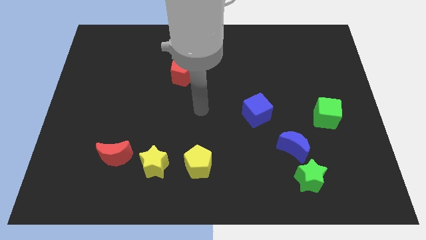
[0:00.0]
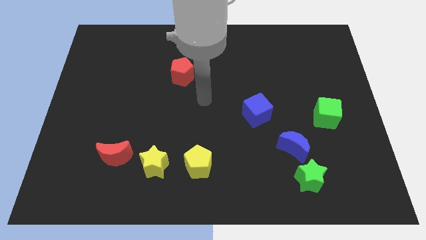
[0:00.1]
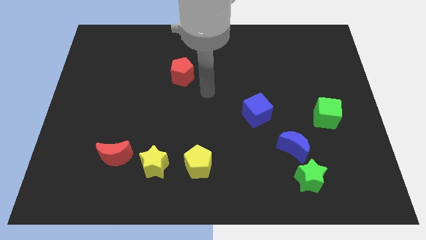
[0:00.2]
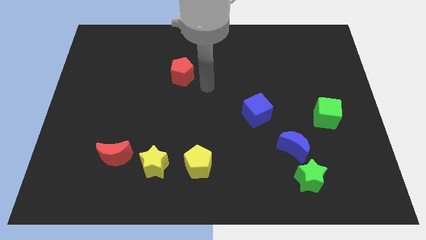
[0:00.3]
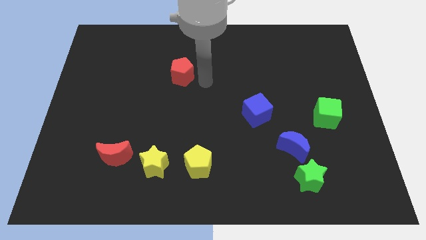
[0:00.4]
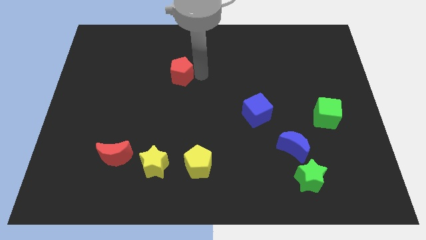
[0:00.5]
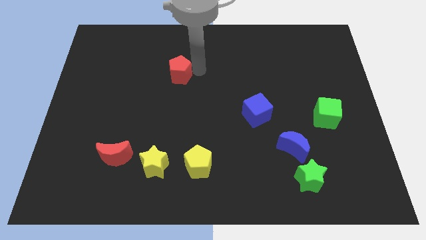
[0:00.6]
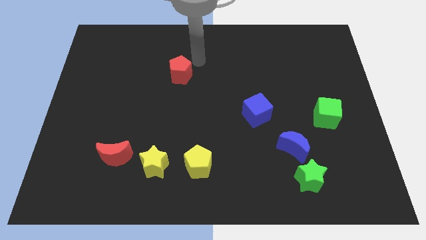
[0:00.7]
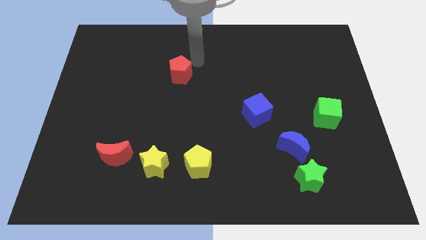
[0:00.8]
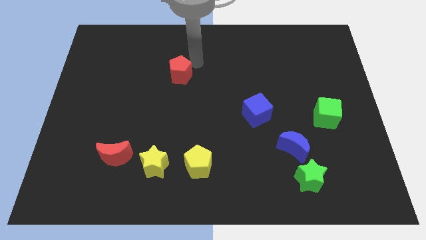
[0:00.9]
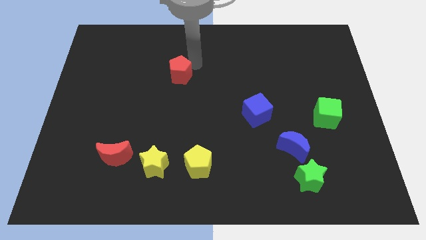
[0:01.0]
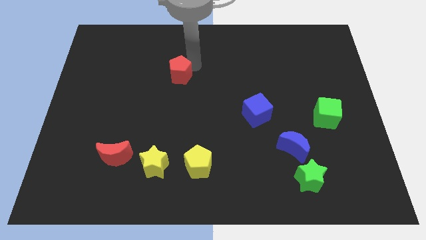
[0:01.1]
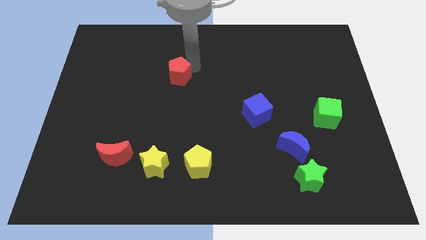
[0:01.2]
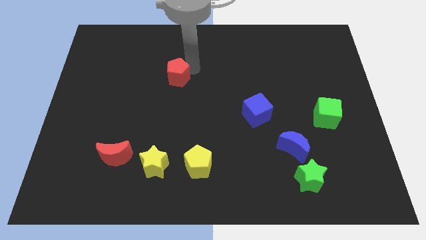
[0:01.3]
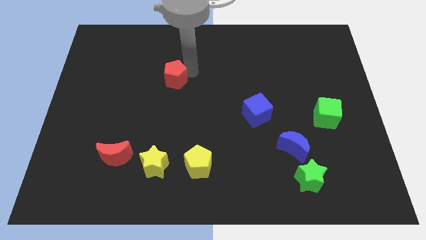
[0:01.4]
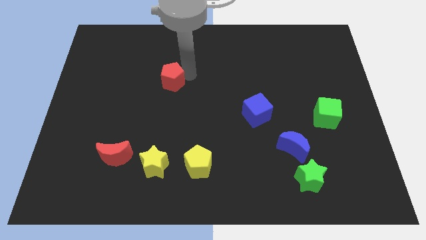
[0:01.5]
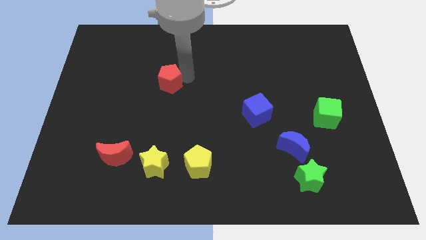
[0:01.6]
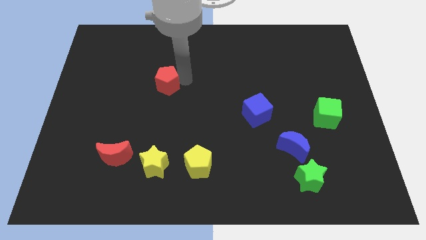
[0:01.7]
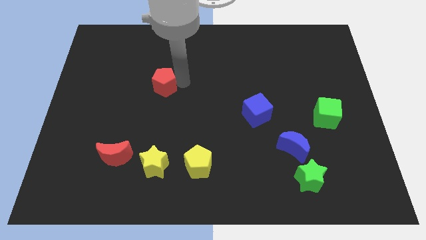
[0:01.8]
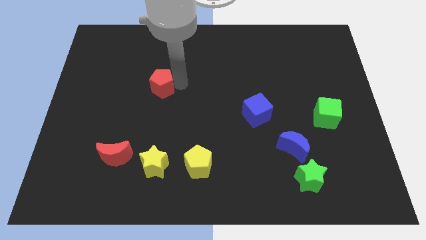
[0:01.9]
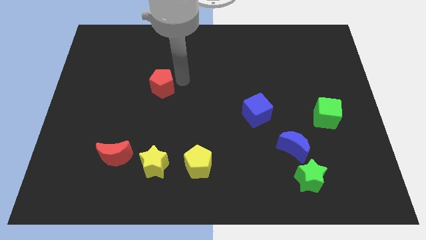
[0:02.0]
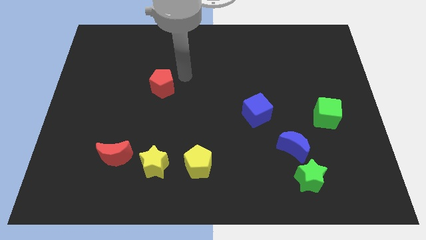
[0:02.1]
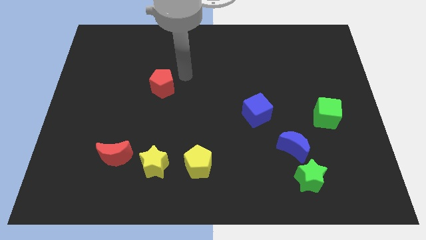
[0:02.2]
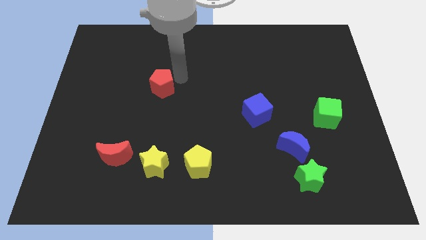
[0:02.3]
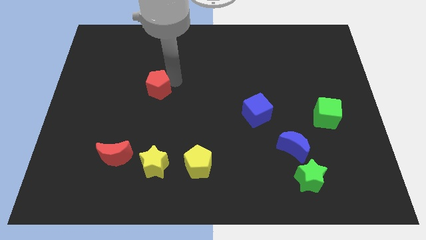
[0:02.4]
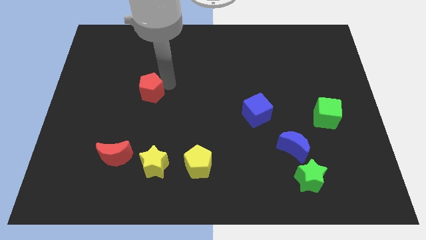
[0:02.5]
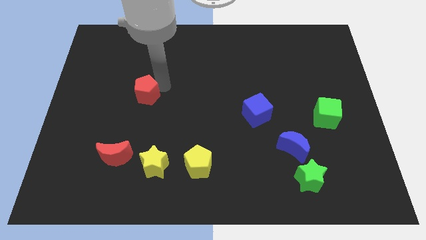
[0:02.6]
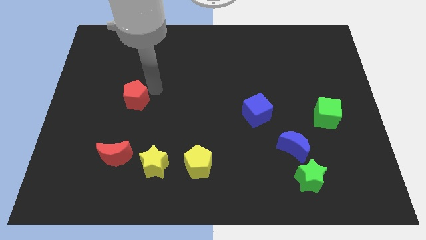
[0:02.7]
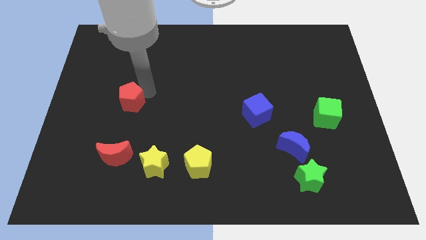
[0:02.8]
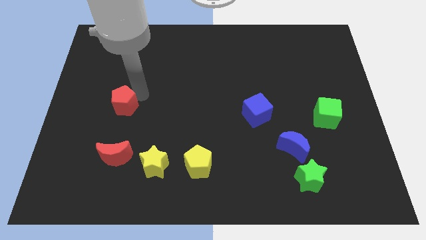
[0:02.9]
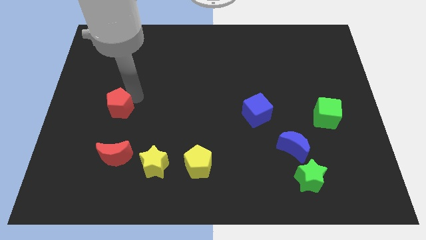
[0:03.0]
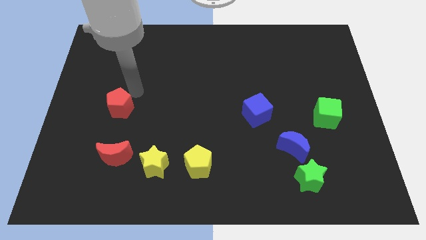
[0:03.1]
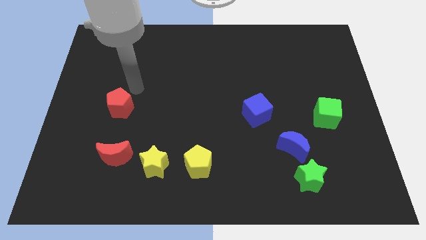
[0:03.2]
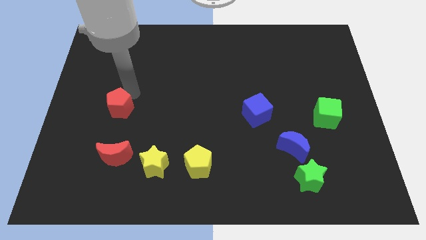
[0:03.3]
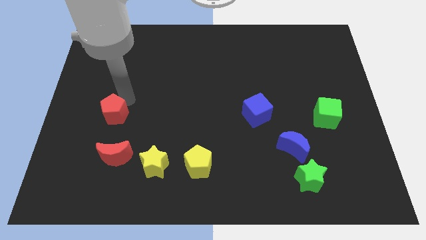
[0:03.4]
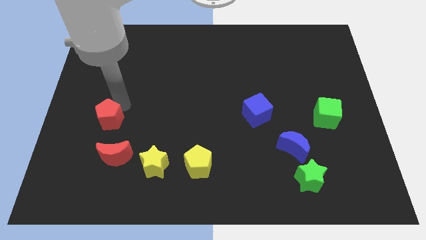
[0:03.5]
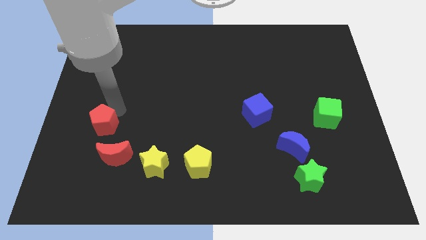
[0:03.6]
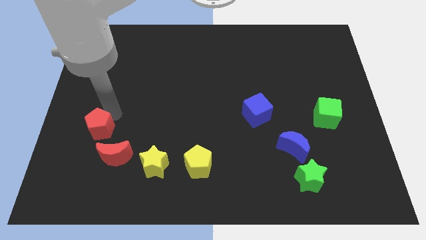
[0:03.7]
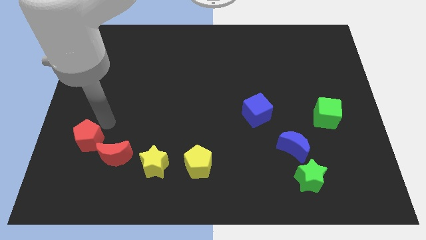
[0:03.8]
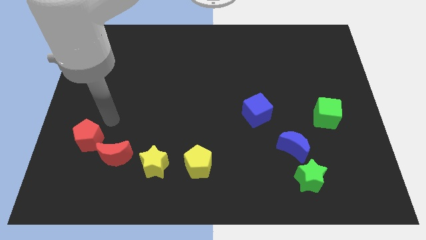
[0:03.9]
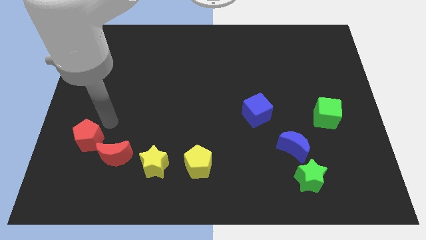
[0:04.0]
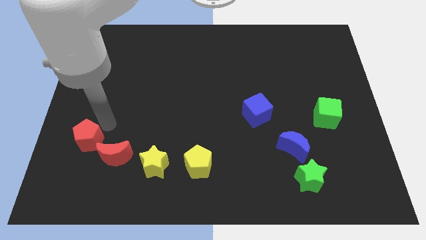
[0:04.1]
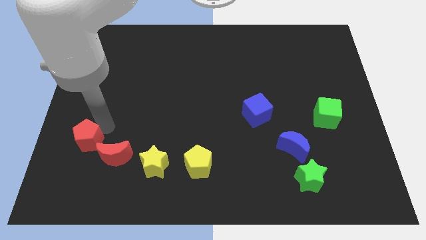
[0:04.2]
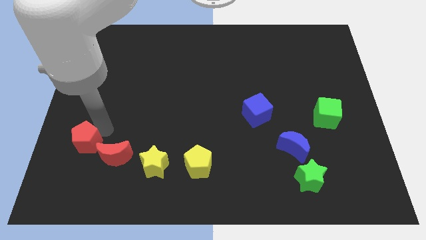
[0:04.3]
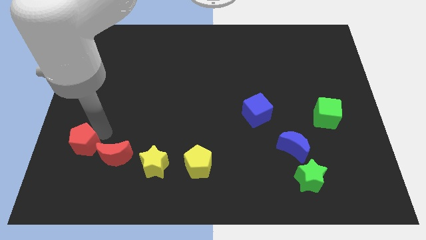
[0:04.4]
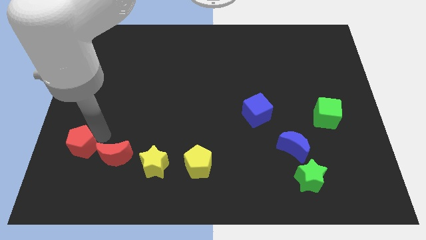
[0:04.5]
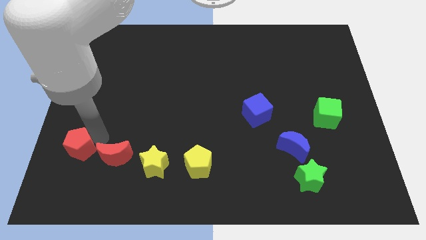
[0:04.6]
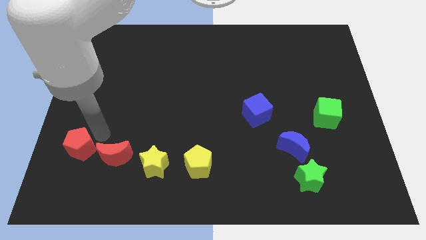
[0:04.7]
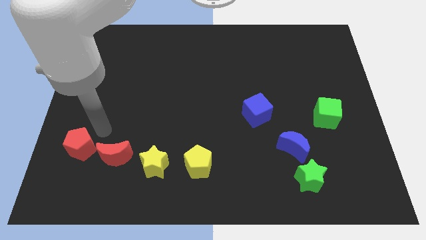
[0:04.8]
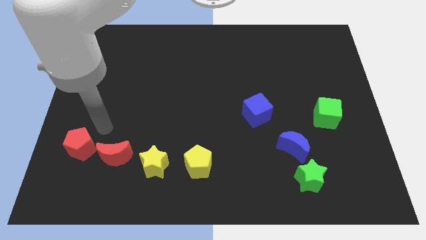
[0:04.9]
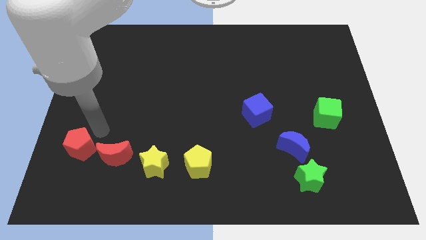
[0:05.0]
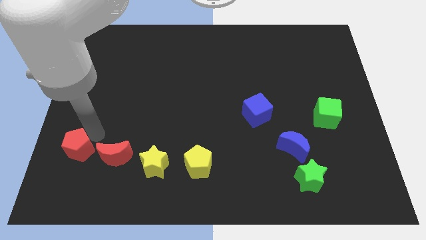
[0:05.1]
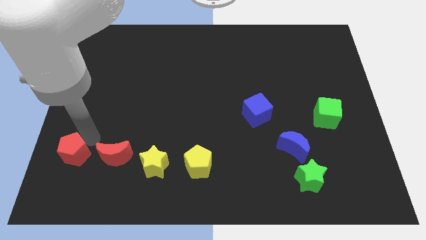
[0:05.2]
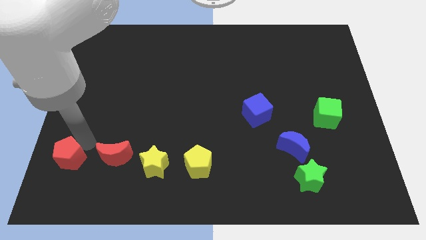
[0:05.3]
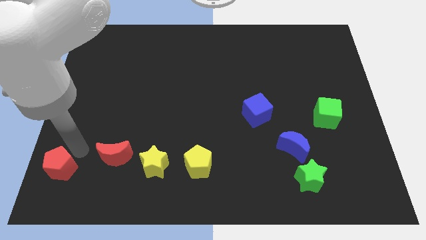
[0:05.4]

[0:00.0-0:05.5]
put the red pentagon to the bottom left of the board
